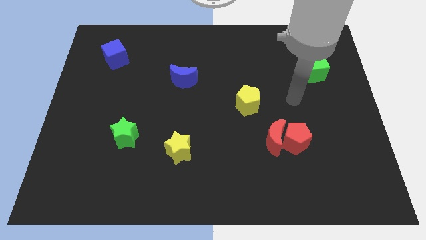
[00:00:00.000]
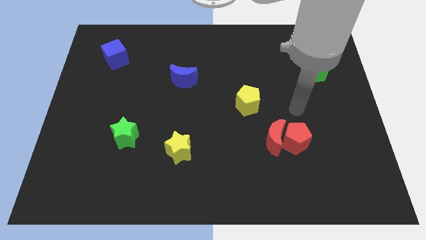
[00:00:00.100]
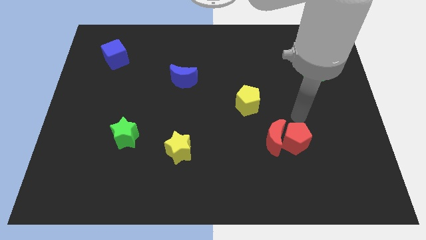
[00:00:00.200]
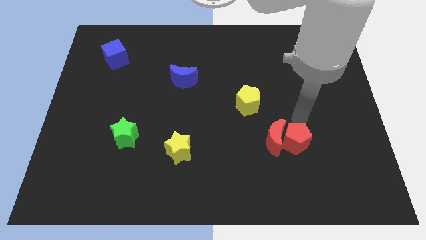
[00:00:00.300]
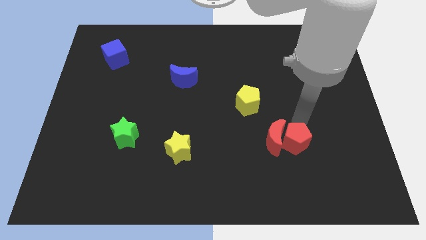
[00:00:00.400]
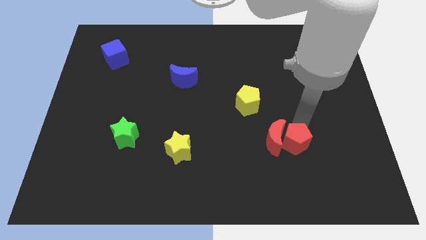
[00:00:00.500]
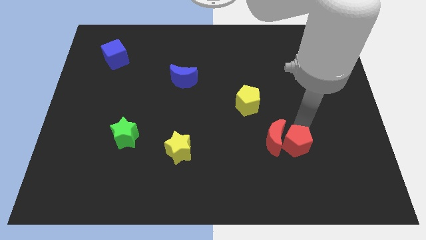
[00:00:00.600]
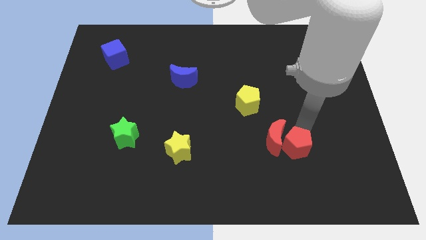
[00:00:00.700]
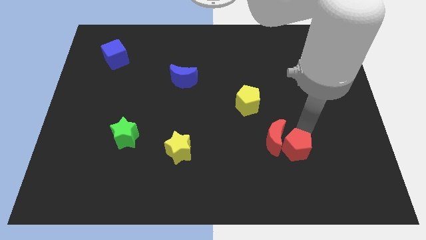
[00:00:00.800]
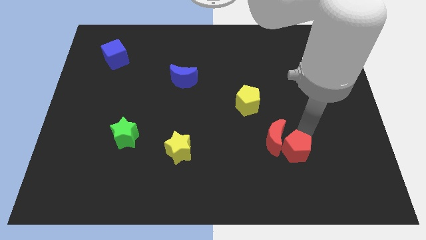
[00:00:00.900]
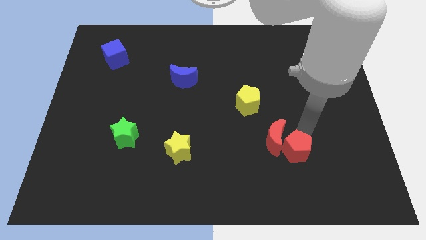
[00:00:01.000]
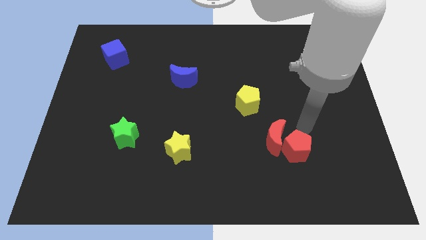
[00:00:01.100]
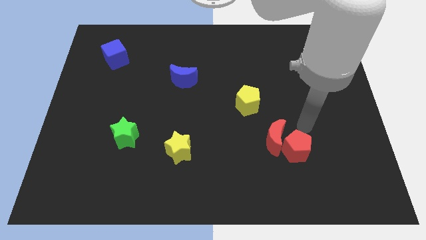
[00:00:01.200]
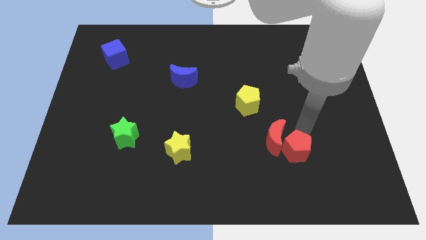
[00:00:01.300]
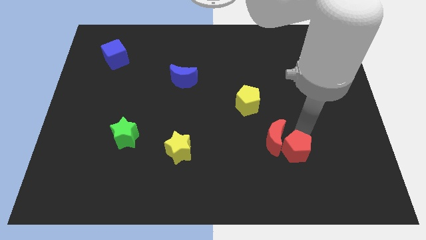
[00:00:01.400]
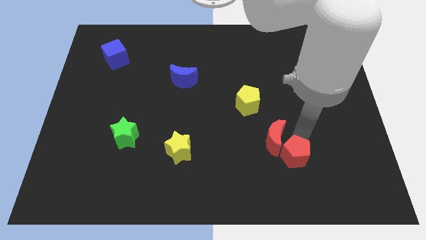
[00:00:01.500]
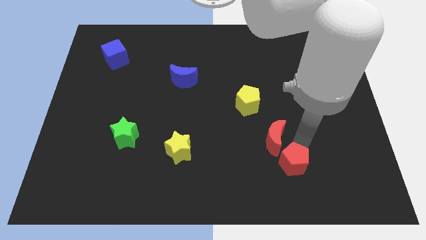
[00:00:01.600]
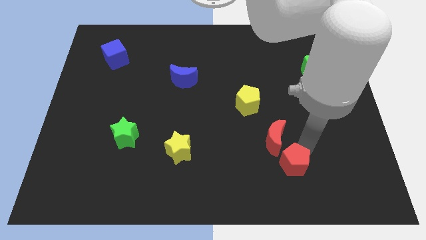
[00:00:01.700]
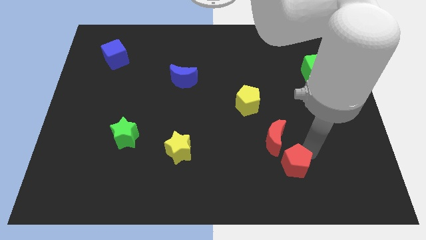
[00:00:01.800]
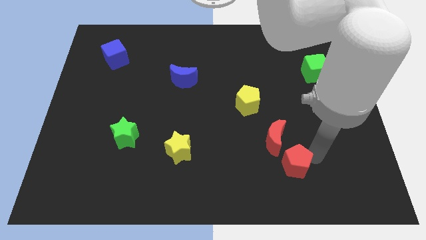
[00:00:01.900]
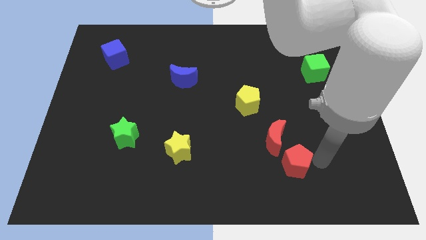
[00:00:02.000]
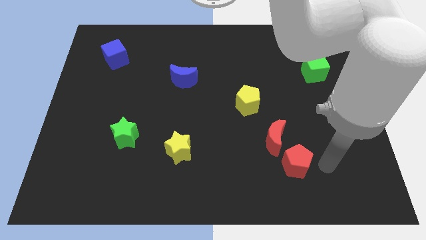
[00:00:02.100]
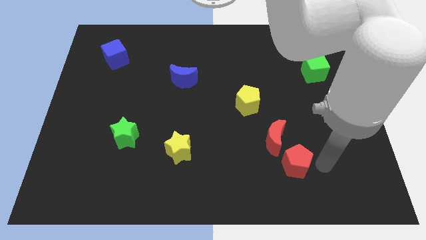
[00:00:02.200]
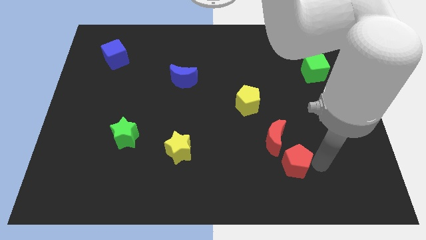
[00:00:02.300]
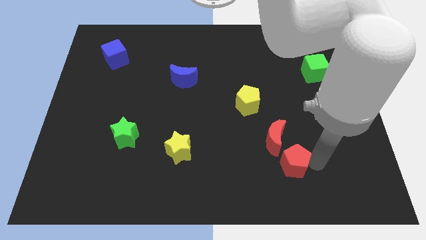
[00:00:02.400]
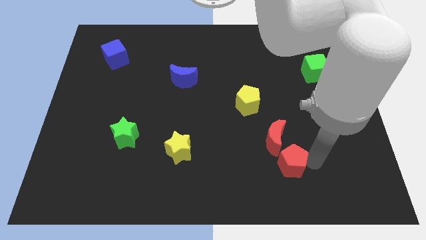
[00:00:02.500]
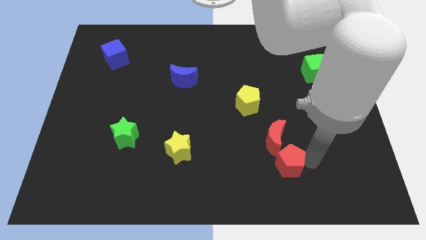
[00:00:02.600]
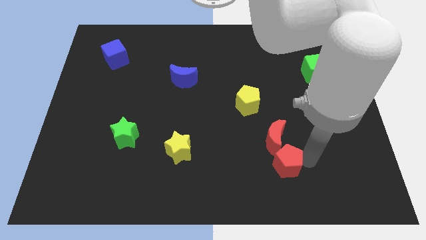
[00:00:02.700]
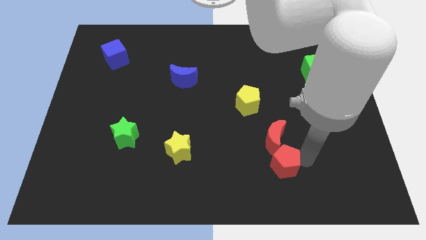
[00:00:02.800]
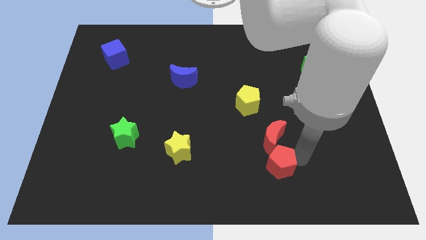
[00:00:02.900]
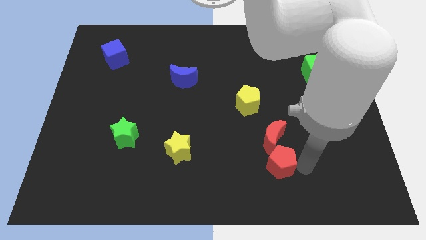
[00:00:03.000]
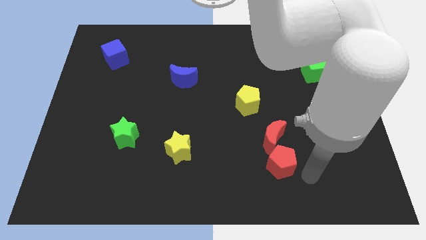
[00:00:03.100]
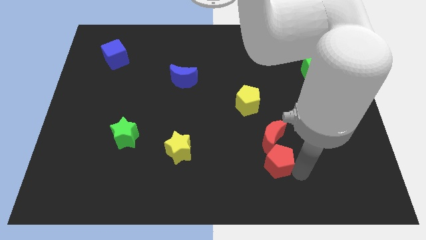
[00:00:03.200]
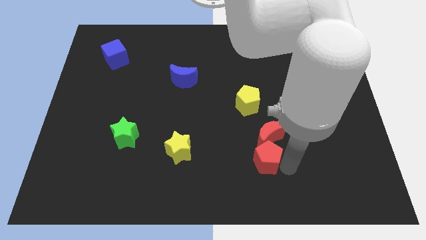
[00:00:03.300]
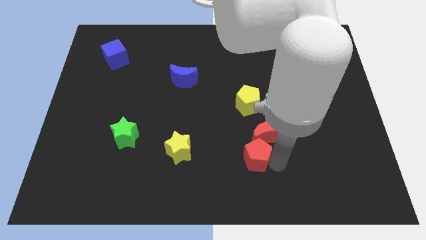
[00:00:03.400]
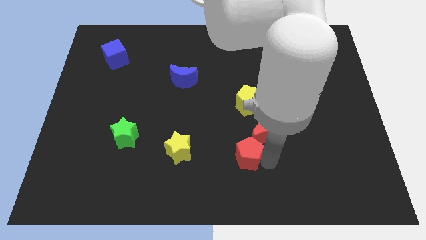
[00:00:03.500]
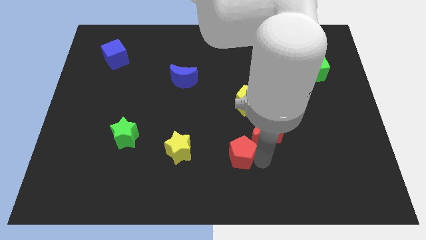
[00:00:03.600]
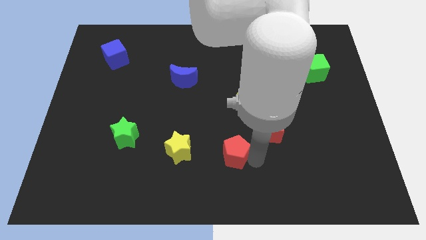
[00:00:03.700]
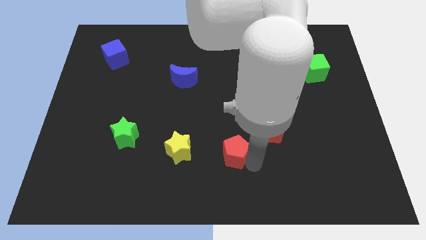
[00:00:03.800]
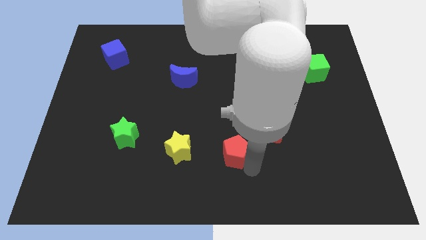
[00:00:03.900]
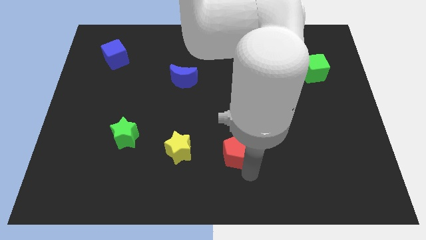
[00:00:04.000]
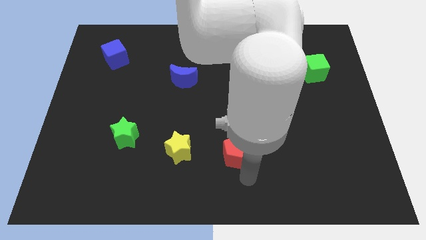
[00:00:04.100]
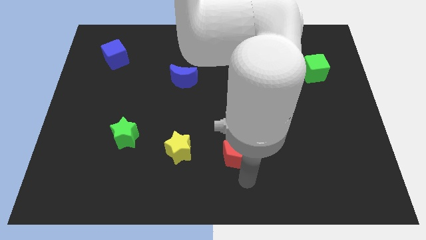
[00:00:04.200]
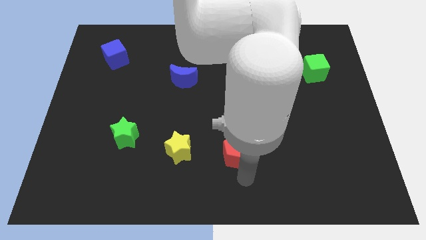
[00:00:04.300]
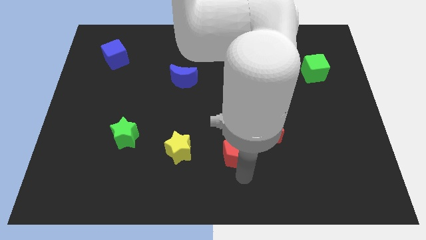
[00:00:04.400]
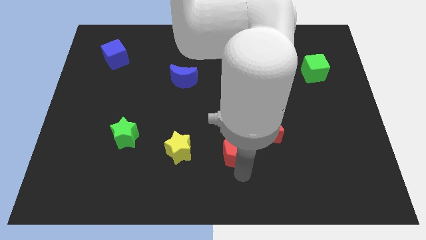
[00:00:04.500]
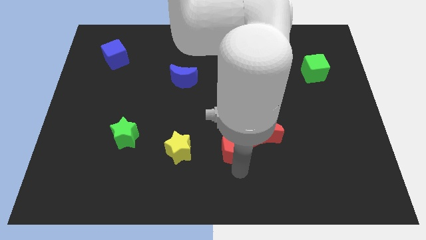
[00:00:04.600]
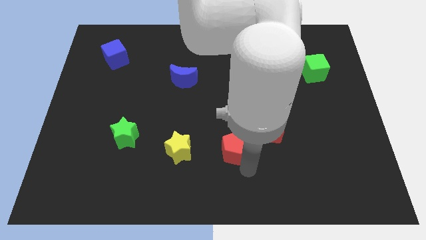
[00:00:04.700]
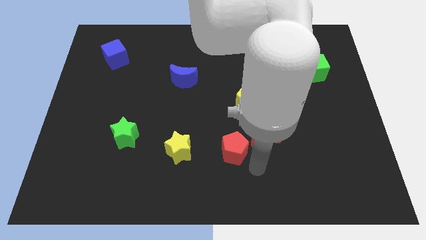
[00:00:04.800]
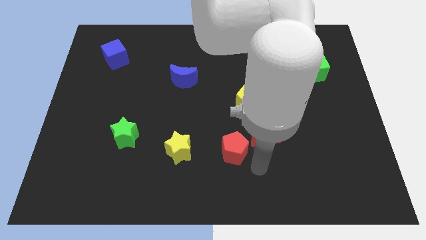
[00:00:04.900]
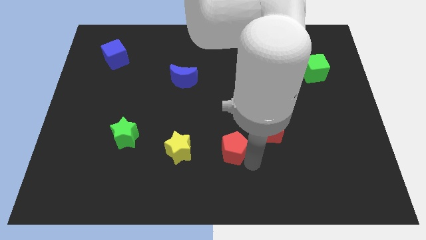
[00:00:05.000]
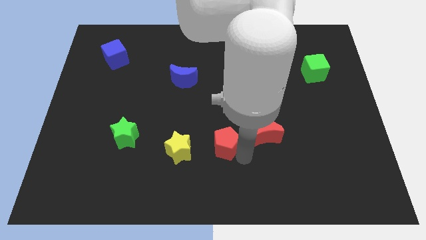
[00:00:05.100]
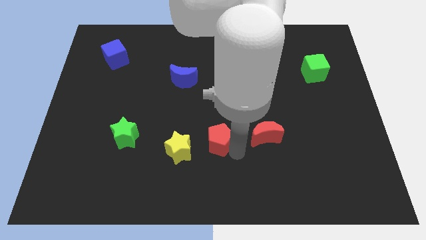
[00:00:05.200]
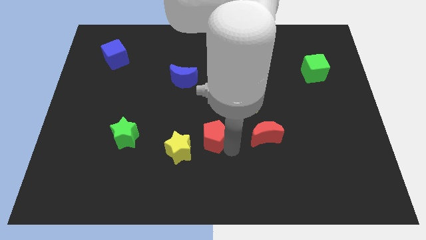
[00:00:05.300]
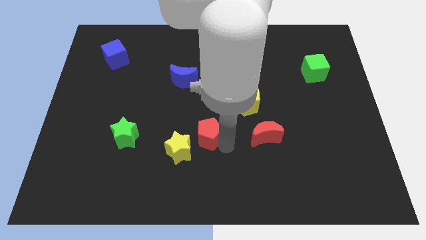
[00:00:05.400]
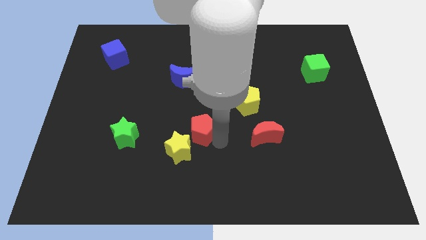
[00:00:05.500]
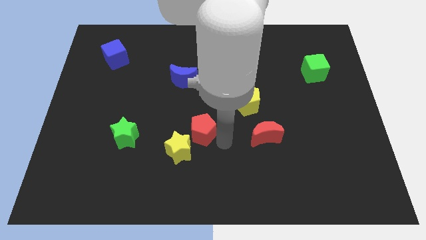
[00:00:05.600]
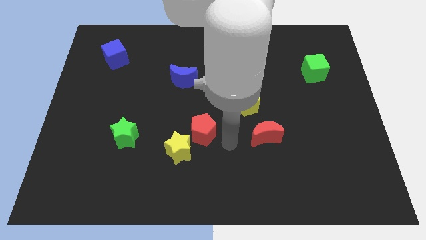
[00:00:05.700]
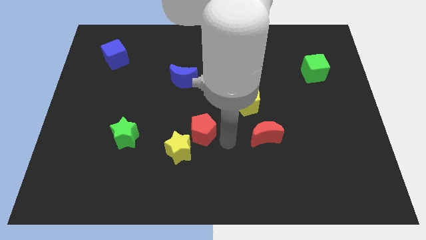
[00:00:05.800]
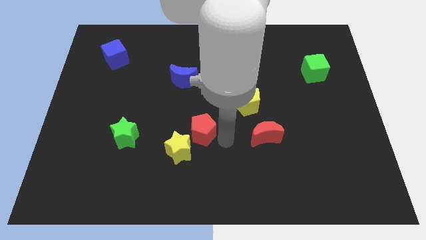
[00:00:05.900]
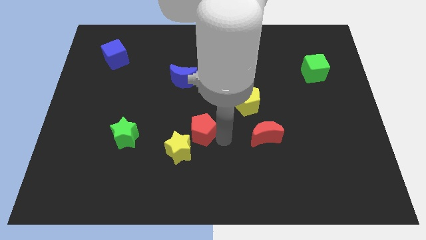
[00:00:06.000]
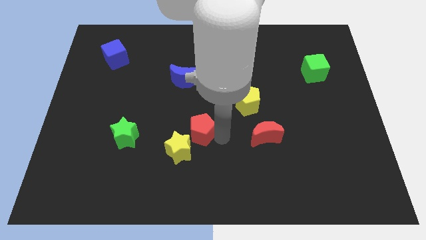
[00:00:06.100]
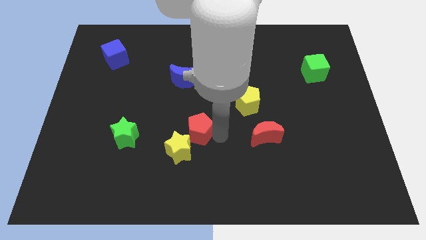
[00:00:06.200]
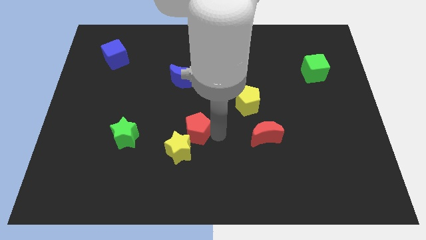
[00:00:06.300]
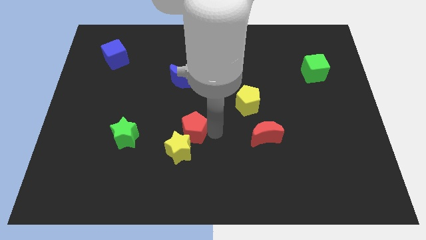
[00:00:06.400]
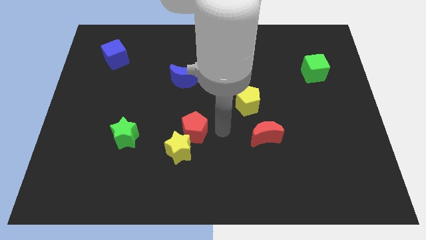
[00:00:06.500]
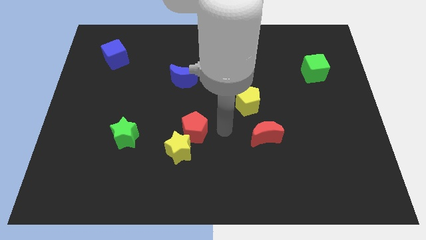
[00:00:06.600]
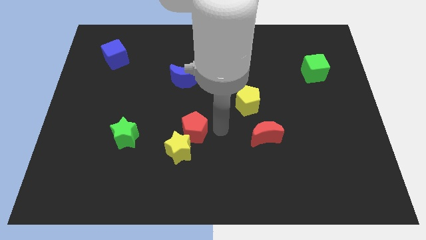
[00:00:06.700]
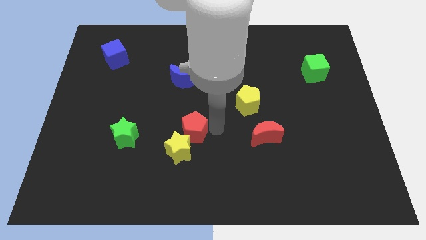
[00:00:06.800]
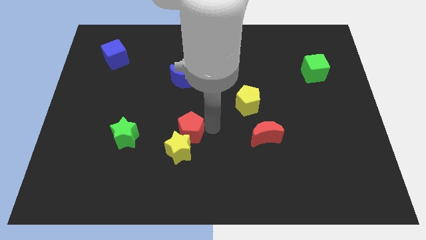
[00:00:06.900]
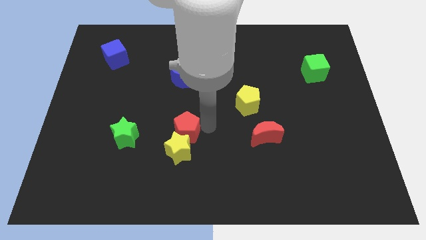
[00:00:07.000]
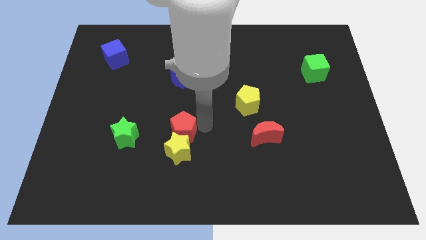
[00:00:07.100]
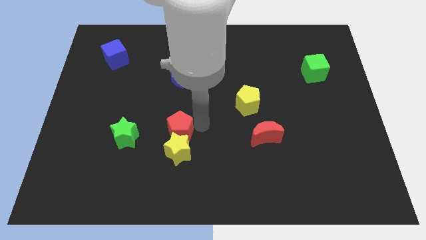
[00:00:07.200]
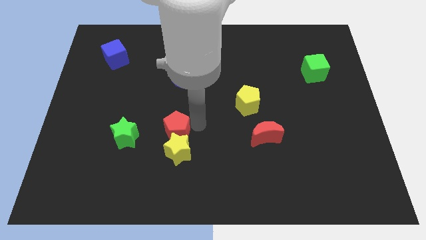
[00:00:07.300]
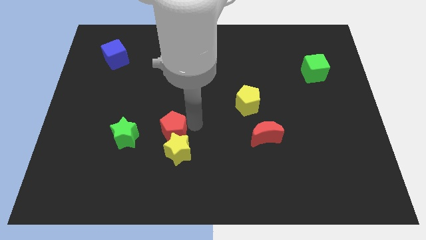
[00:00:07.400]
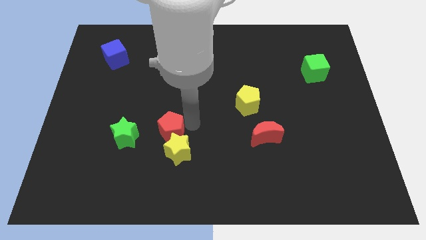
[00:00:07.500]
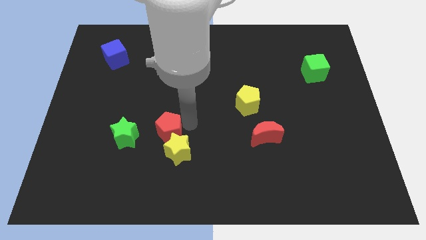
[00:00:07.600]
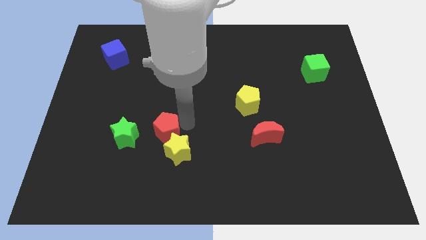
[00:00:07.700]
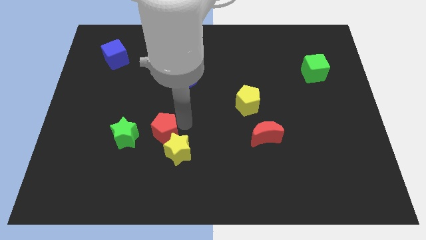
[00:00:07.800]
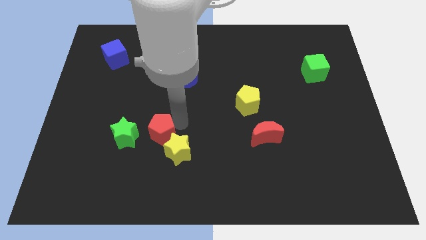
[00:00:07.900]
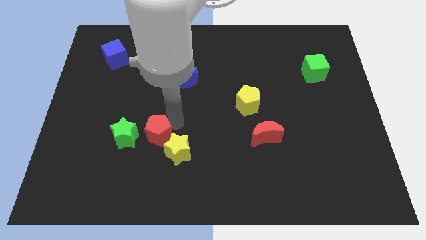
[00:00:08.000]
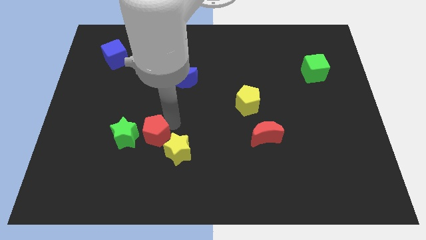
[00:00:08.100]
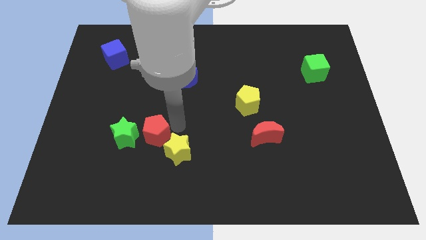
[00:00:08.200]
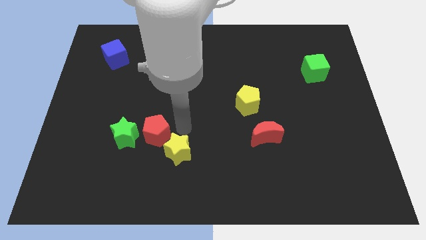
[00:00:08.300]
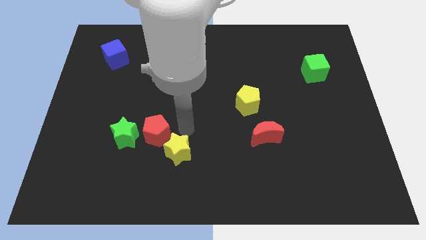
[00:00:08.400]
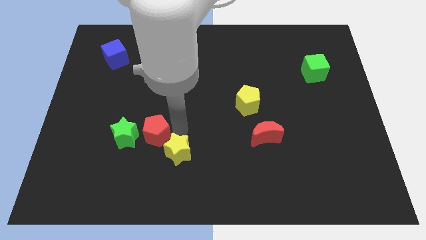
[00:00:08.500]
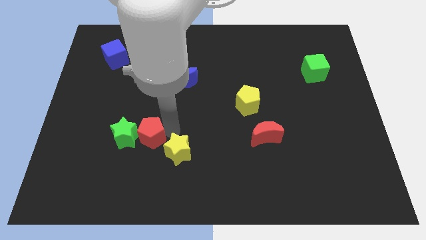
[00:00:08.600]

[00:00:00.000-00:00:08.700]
move the red pentagon towards the green star
